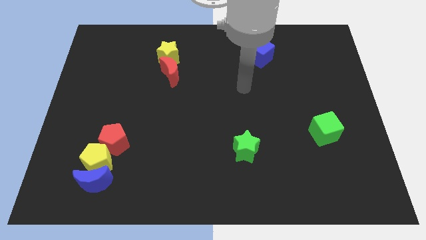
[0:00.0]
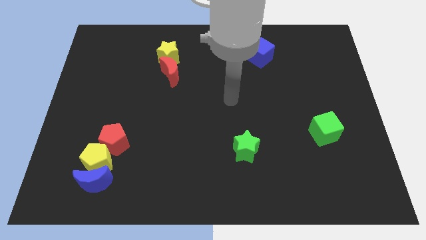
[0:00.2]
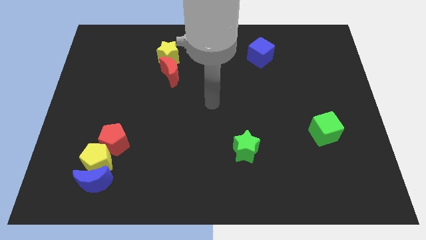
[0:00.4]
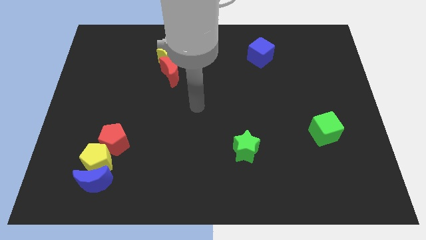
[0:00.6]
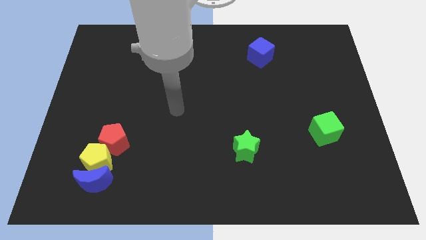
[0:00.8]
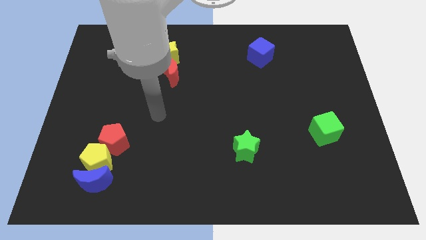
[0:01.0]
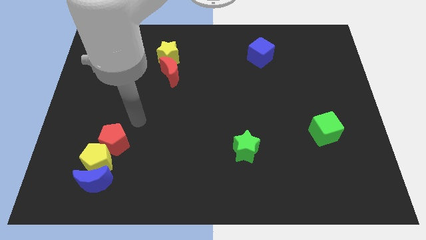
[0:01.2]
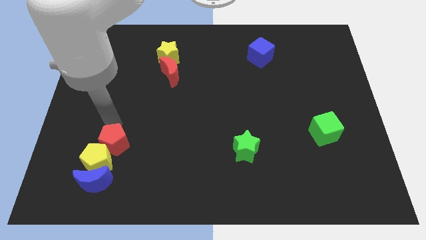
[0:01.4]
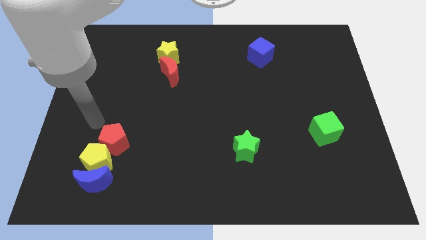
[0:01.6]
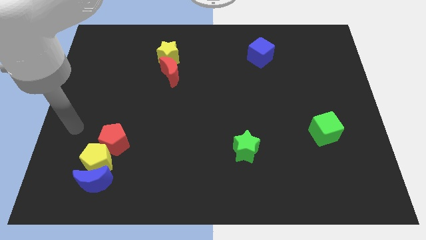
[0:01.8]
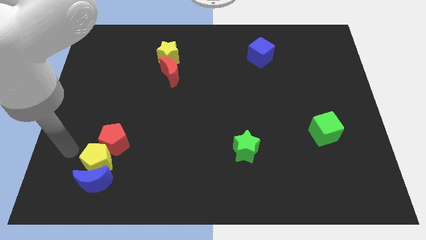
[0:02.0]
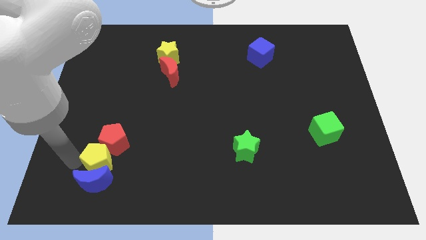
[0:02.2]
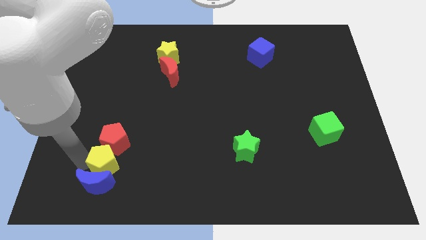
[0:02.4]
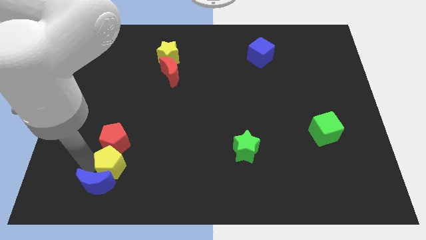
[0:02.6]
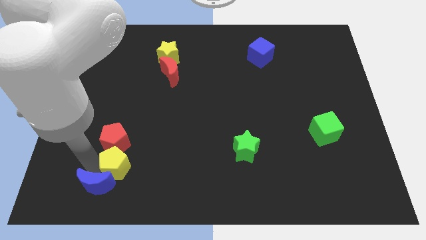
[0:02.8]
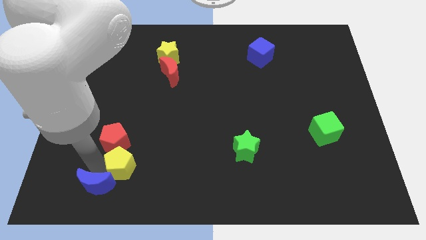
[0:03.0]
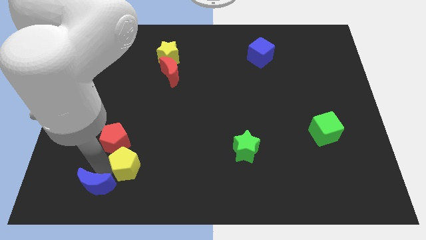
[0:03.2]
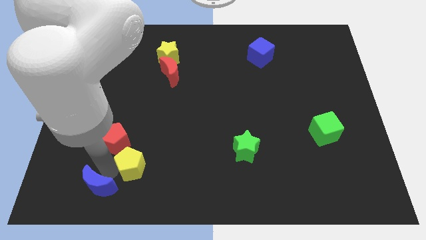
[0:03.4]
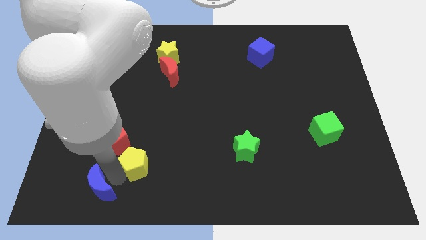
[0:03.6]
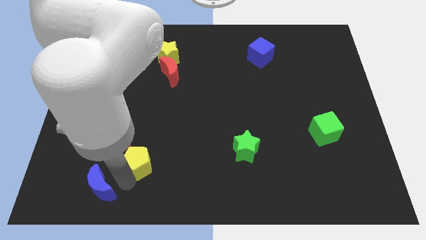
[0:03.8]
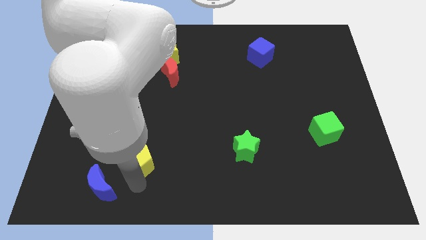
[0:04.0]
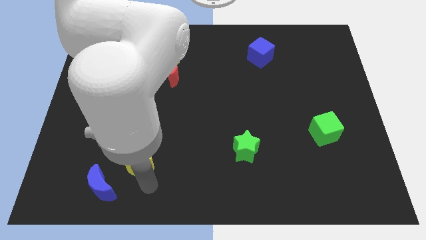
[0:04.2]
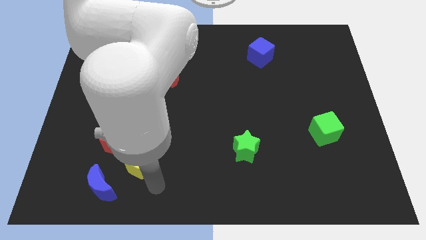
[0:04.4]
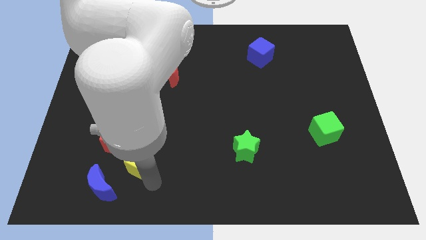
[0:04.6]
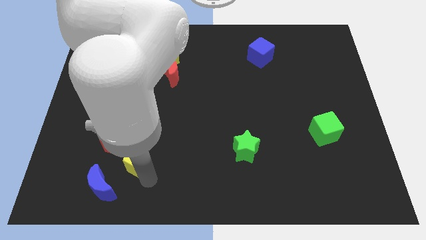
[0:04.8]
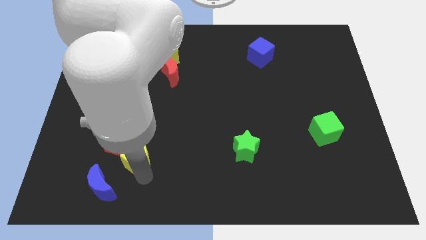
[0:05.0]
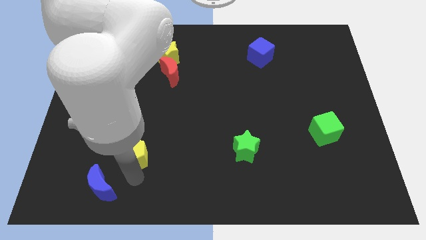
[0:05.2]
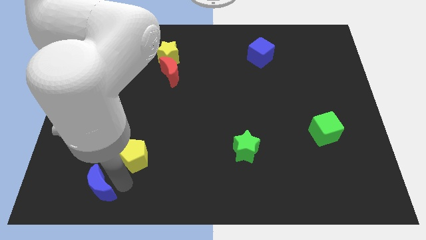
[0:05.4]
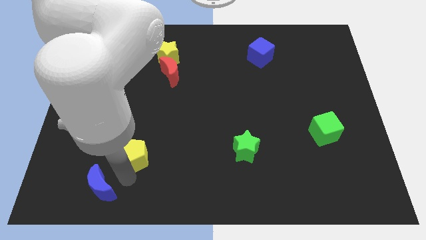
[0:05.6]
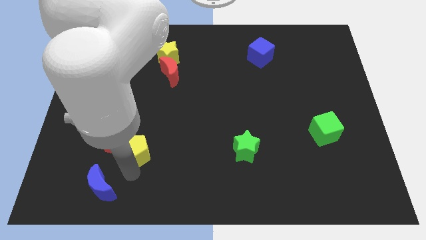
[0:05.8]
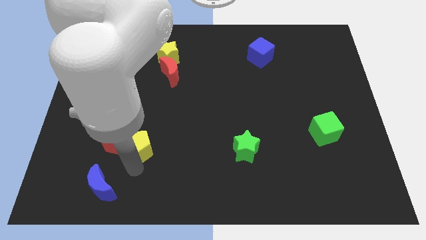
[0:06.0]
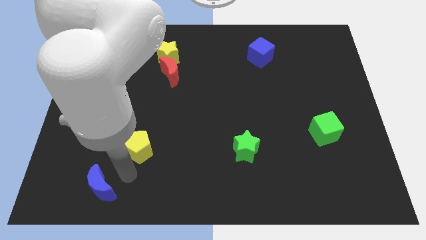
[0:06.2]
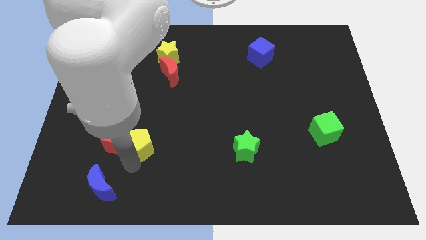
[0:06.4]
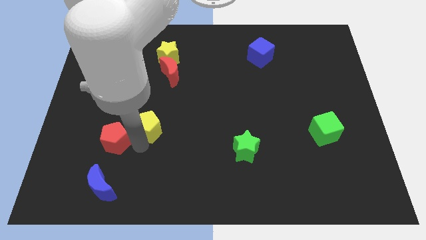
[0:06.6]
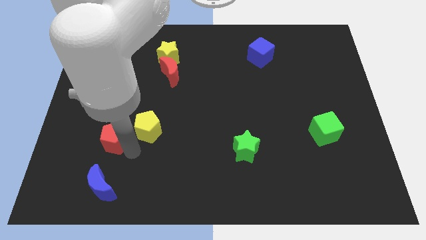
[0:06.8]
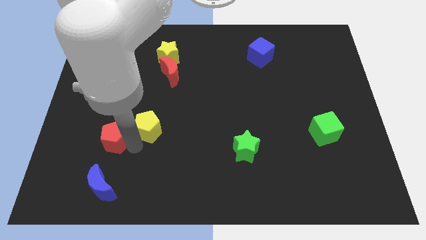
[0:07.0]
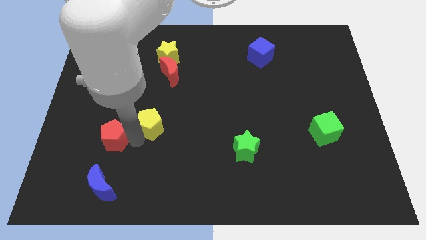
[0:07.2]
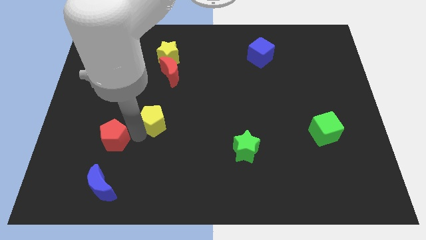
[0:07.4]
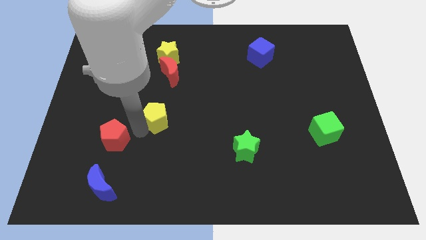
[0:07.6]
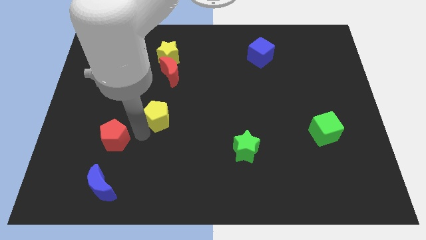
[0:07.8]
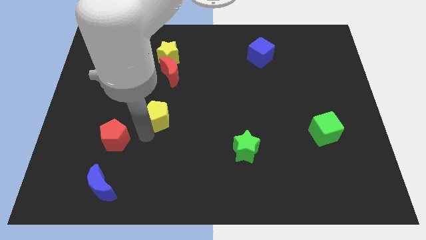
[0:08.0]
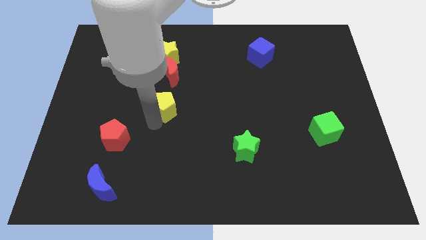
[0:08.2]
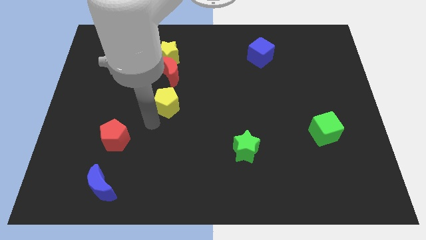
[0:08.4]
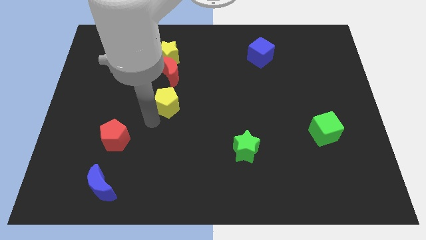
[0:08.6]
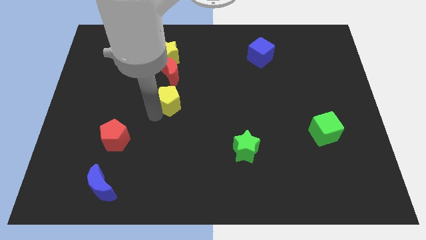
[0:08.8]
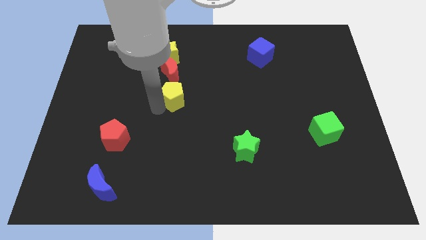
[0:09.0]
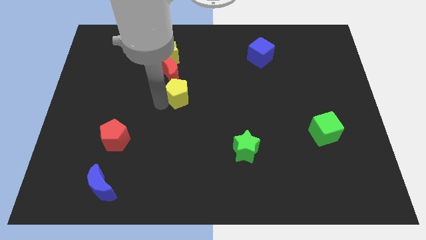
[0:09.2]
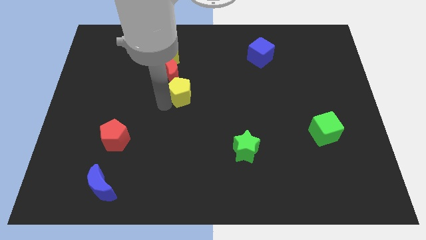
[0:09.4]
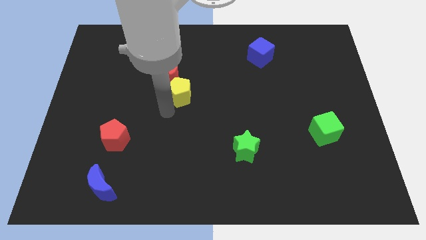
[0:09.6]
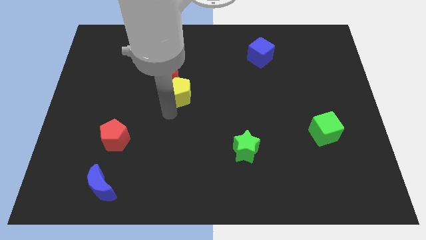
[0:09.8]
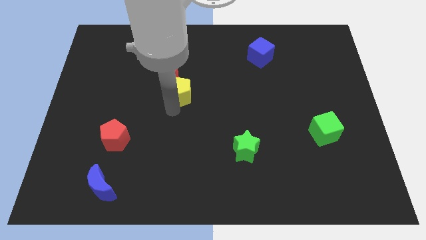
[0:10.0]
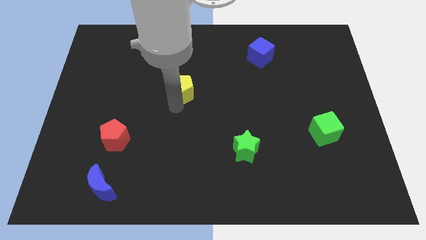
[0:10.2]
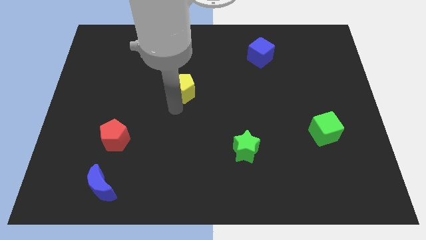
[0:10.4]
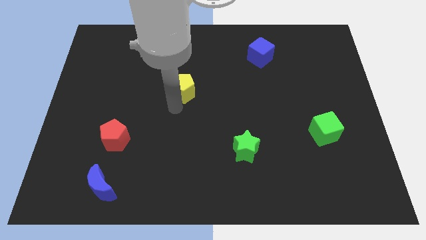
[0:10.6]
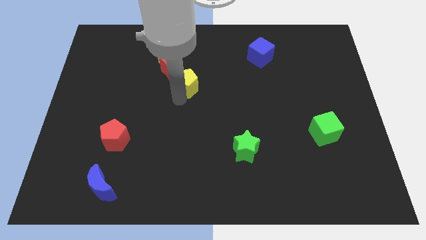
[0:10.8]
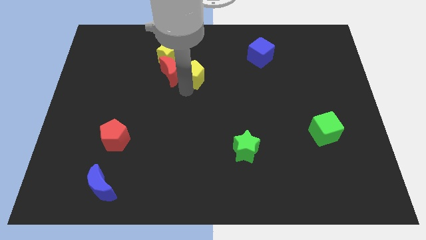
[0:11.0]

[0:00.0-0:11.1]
slide the yellow pentagon to the top right side of the red moon

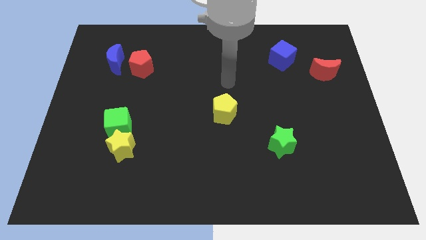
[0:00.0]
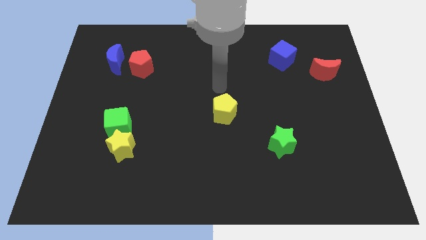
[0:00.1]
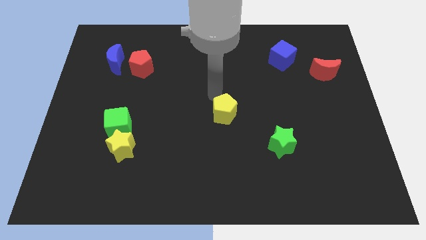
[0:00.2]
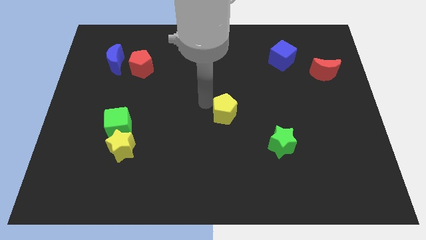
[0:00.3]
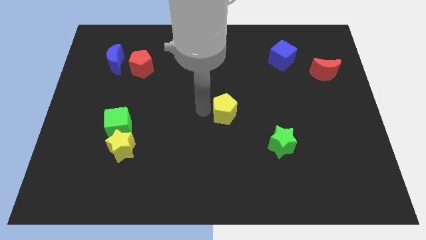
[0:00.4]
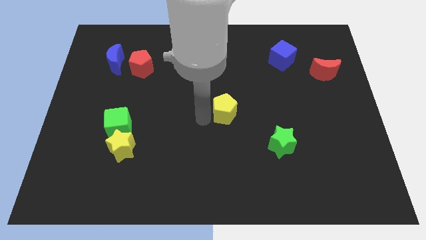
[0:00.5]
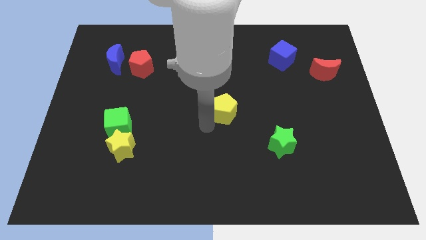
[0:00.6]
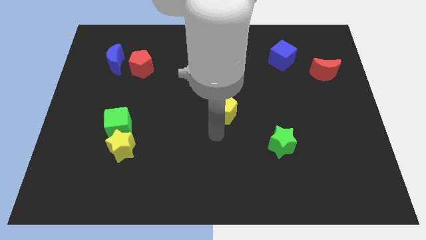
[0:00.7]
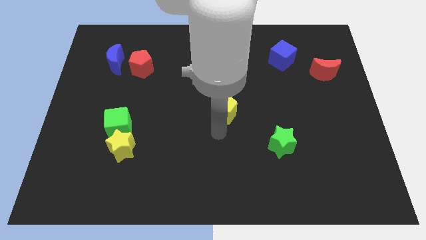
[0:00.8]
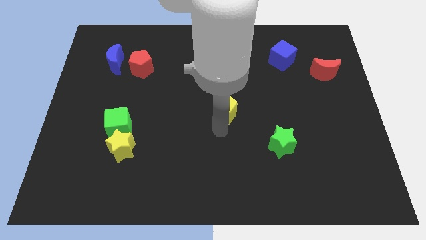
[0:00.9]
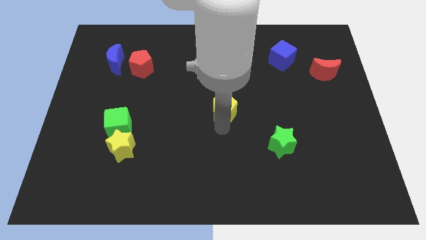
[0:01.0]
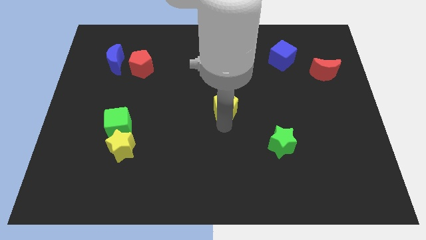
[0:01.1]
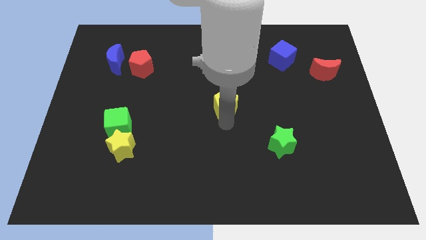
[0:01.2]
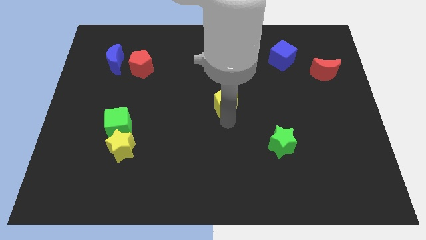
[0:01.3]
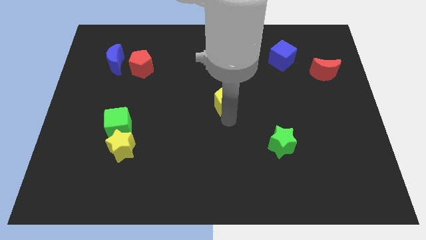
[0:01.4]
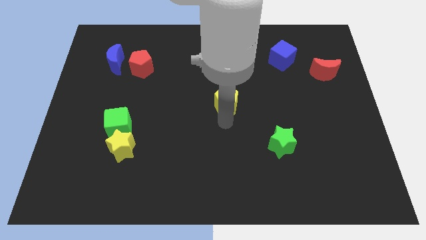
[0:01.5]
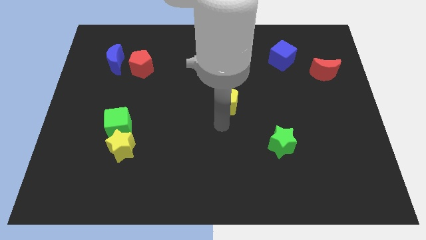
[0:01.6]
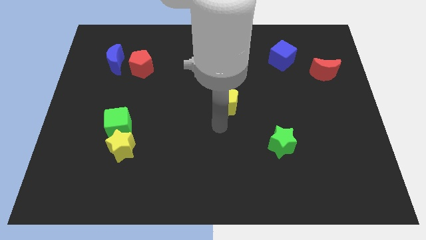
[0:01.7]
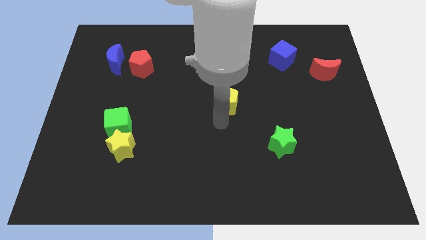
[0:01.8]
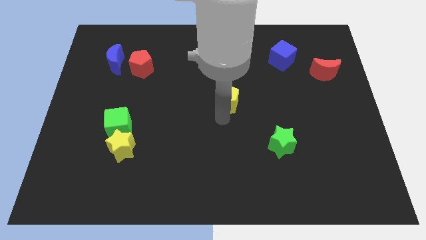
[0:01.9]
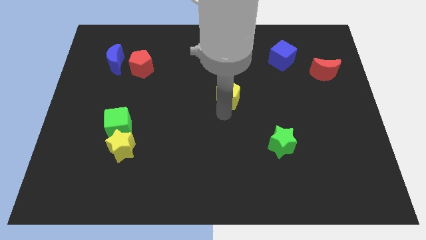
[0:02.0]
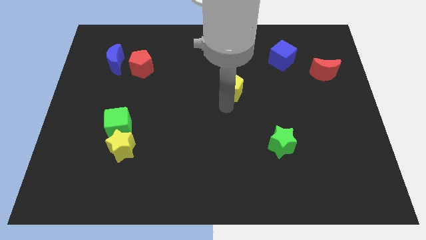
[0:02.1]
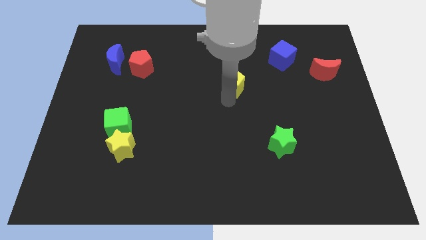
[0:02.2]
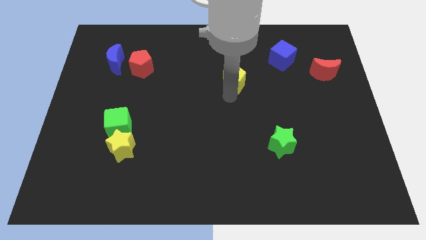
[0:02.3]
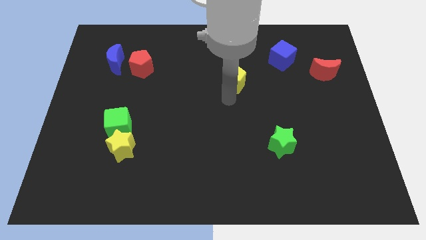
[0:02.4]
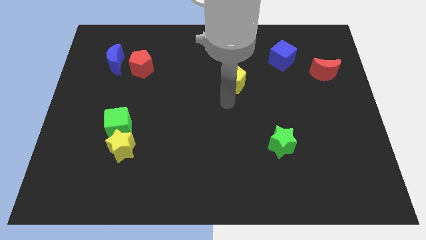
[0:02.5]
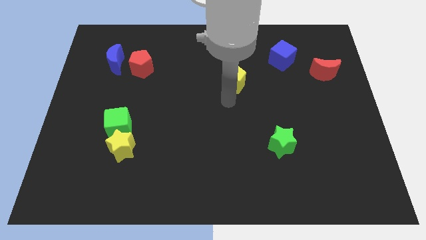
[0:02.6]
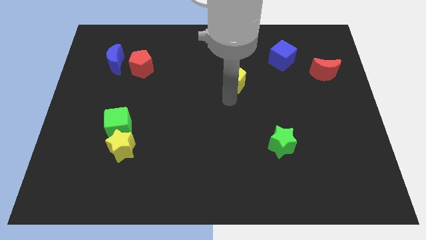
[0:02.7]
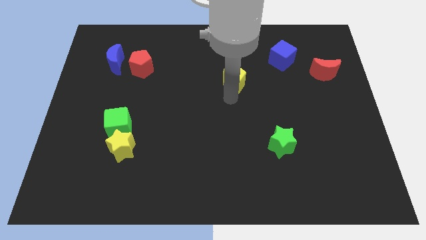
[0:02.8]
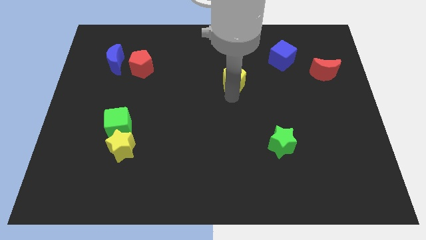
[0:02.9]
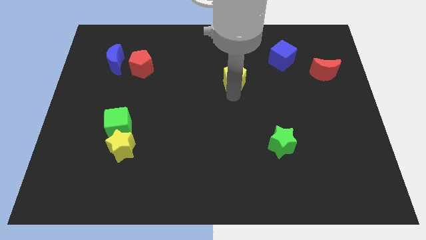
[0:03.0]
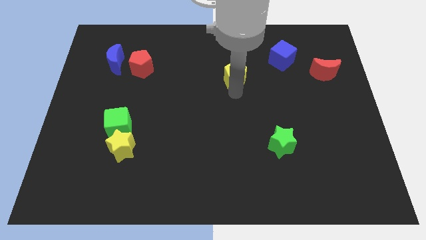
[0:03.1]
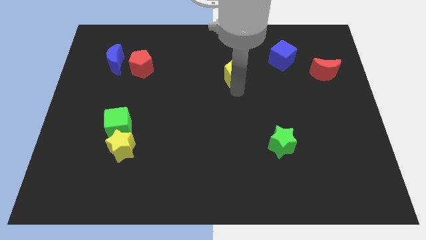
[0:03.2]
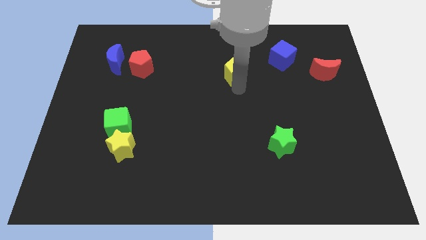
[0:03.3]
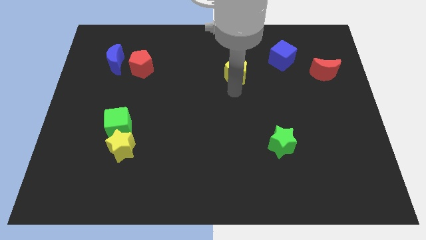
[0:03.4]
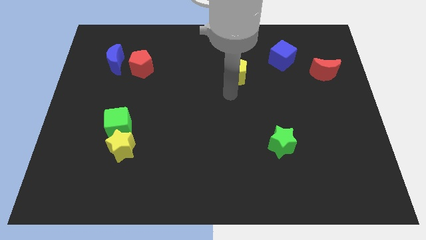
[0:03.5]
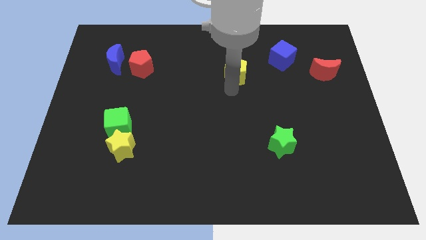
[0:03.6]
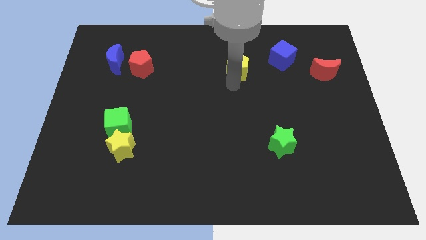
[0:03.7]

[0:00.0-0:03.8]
slide the yellow pentagon left of the blue cube
